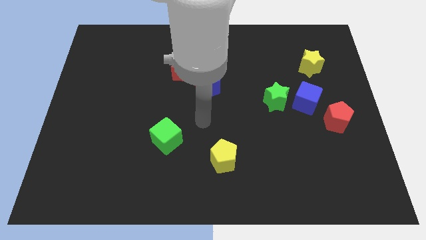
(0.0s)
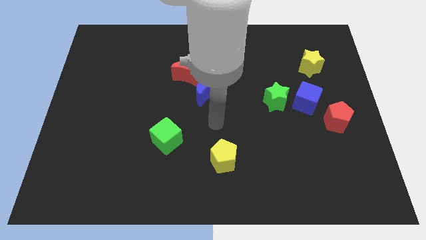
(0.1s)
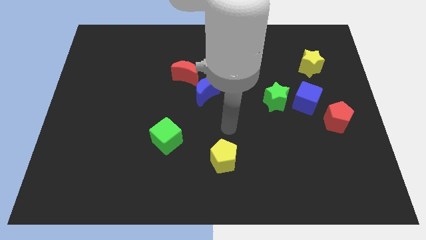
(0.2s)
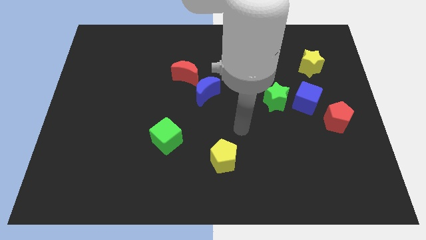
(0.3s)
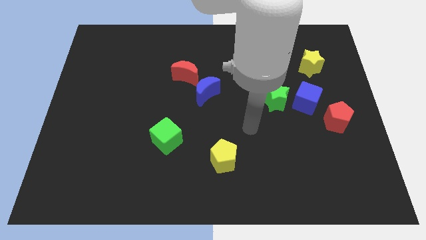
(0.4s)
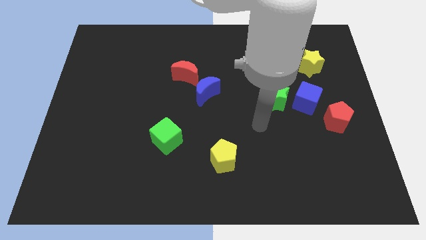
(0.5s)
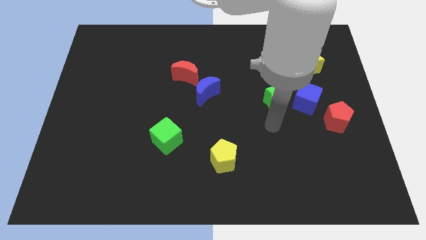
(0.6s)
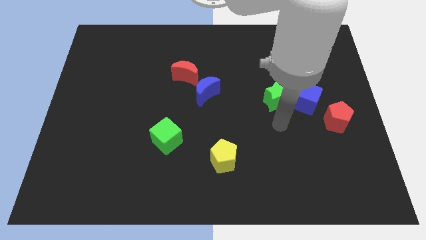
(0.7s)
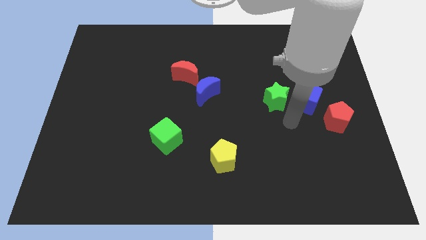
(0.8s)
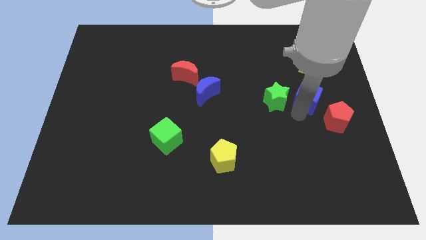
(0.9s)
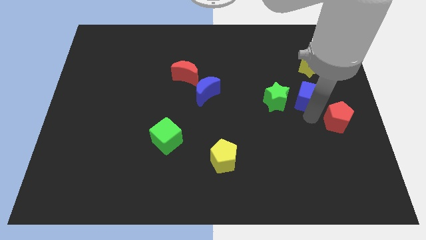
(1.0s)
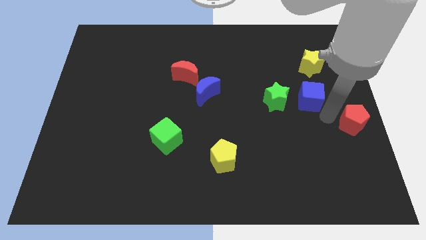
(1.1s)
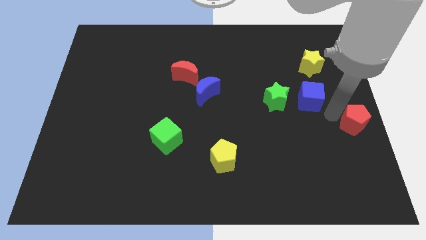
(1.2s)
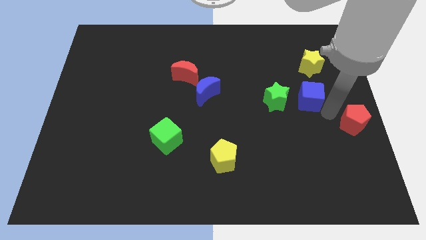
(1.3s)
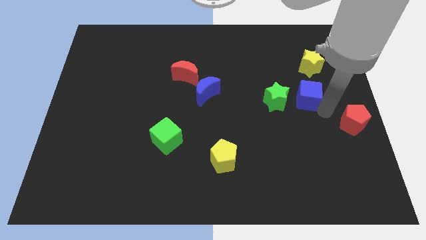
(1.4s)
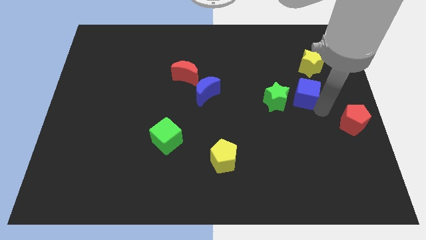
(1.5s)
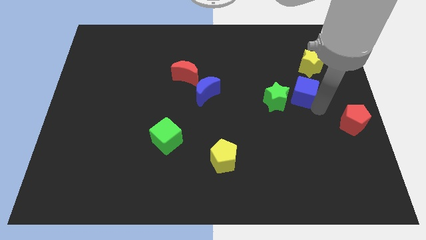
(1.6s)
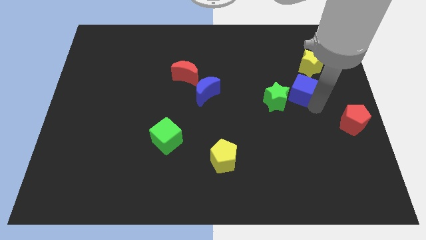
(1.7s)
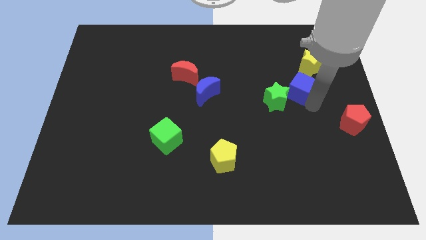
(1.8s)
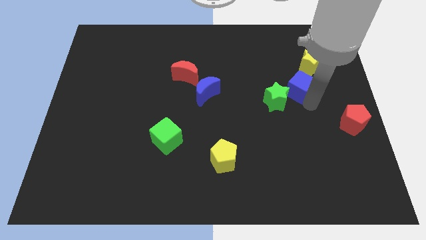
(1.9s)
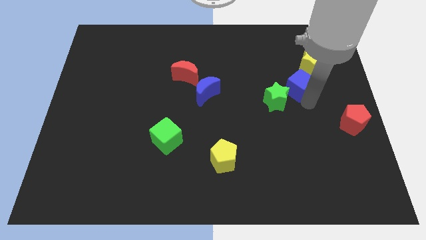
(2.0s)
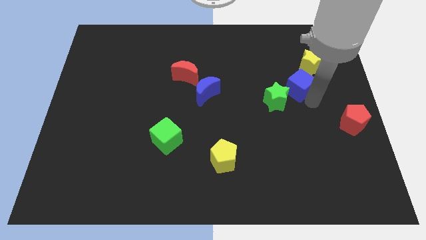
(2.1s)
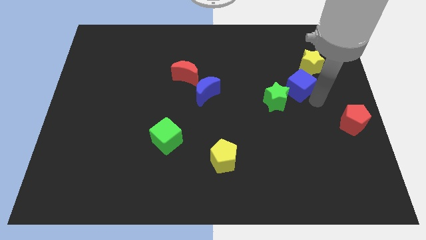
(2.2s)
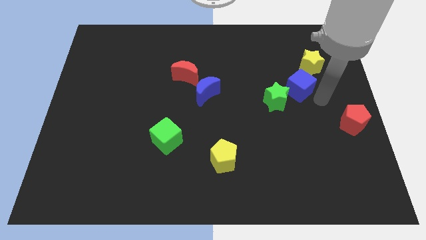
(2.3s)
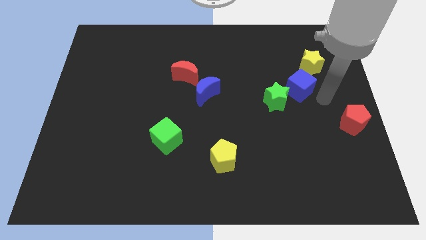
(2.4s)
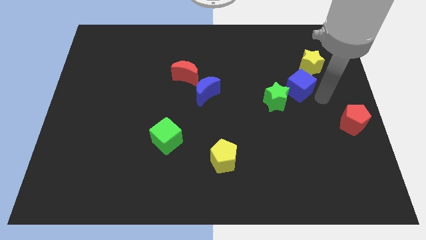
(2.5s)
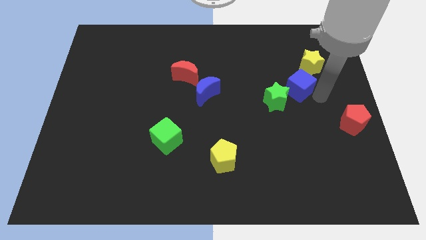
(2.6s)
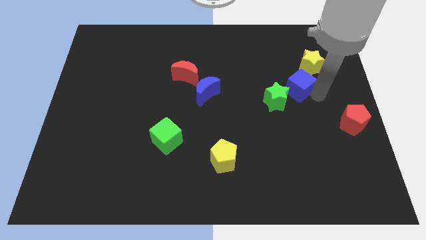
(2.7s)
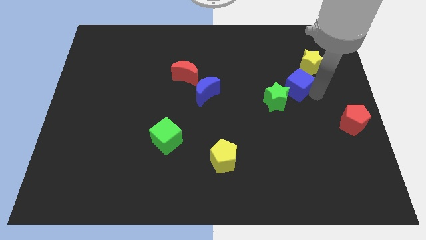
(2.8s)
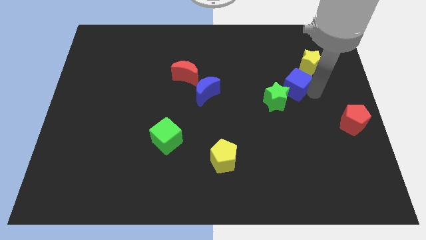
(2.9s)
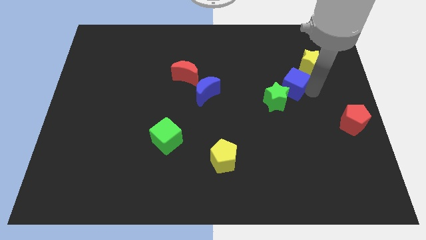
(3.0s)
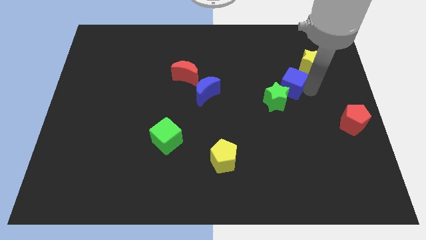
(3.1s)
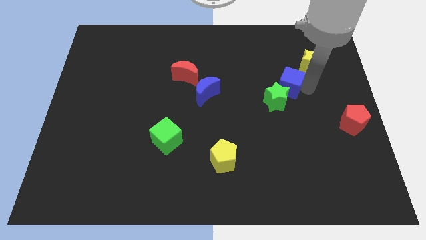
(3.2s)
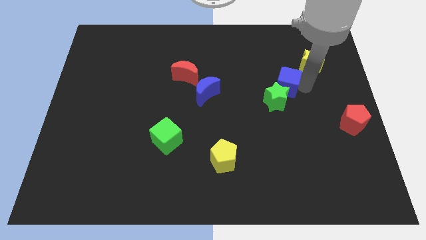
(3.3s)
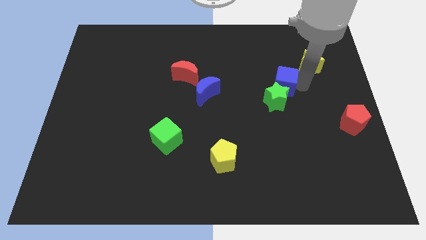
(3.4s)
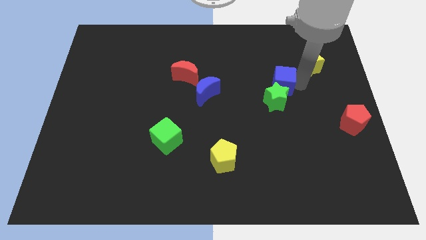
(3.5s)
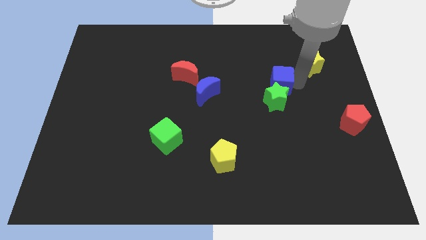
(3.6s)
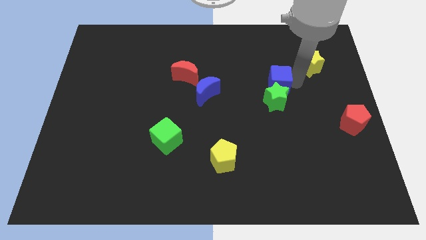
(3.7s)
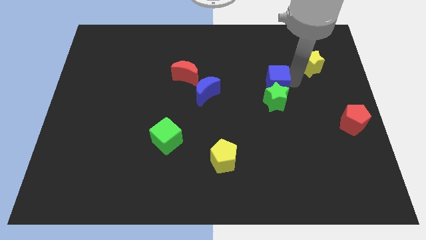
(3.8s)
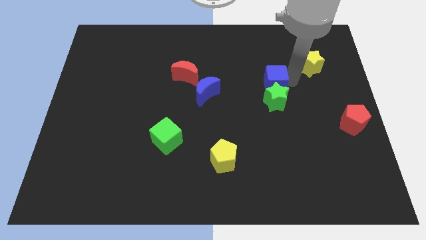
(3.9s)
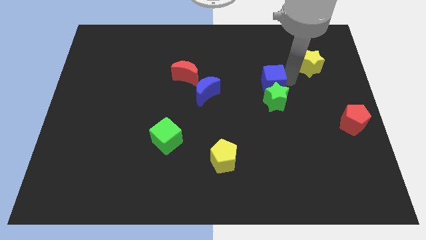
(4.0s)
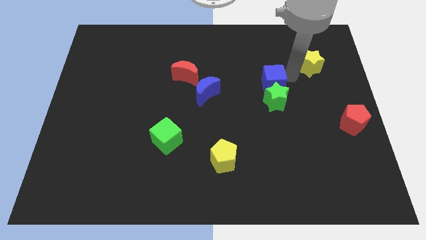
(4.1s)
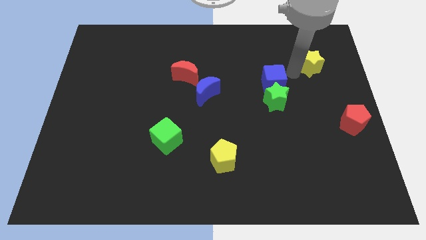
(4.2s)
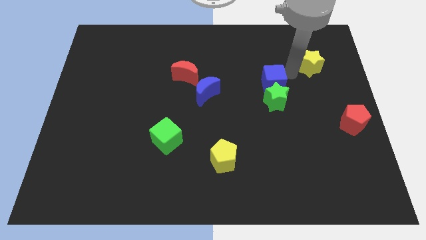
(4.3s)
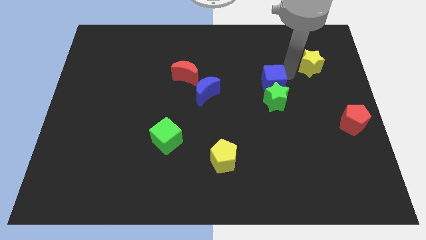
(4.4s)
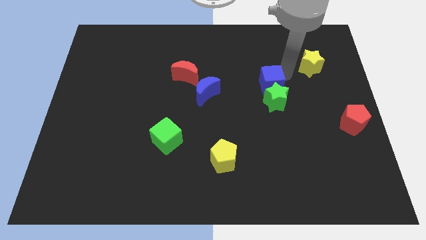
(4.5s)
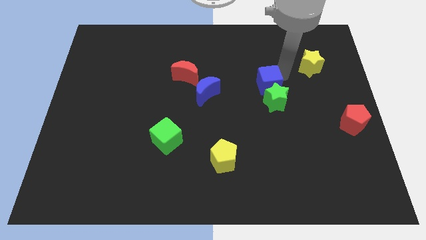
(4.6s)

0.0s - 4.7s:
slightly slide the blue cube to the left

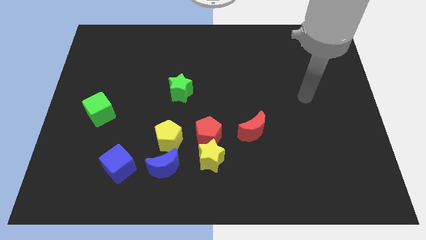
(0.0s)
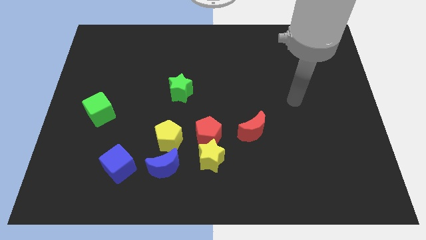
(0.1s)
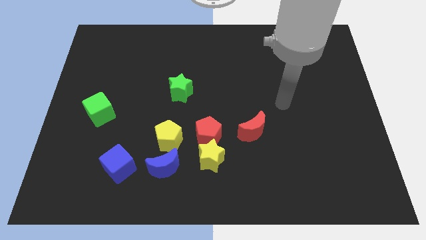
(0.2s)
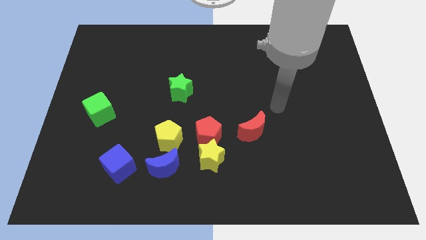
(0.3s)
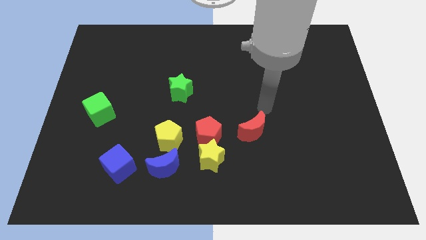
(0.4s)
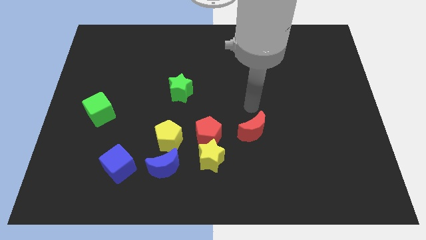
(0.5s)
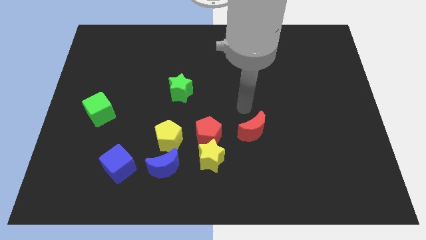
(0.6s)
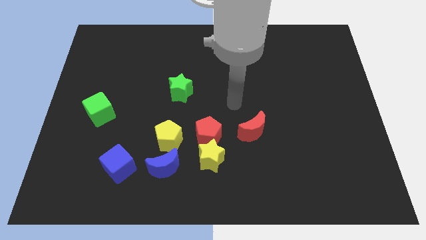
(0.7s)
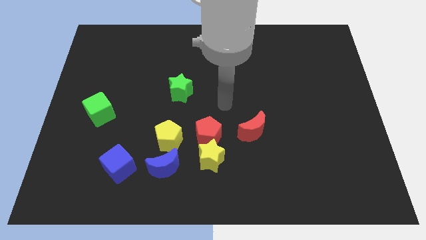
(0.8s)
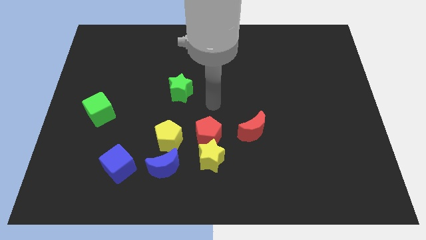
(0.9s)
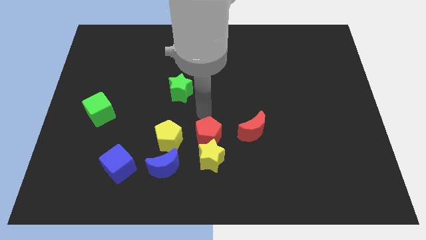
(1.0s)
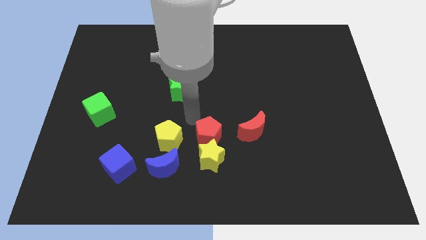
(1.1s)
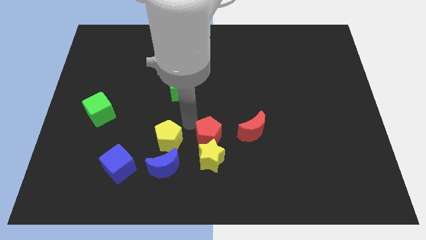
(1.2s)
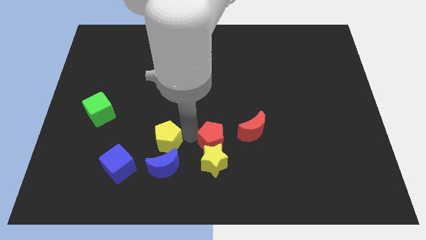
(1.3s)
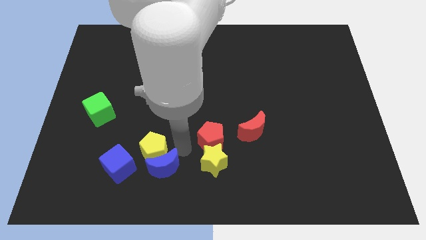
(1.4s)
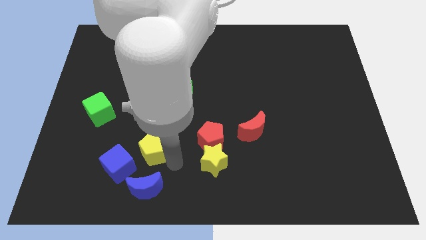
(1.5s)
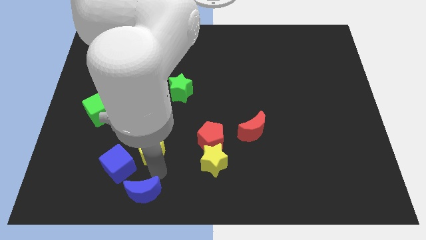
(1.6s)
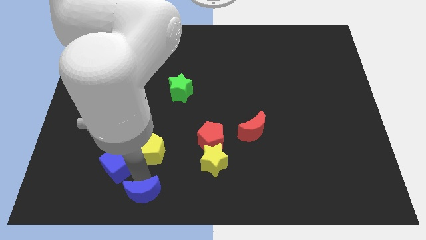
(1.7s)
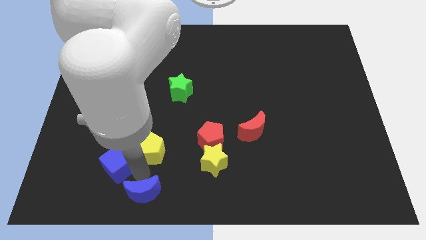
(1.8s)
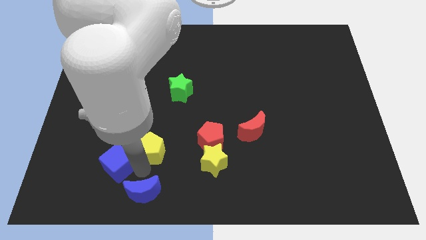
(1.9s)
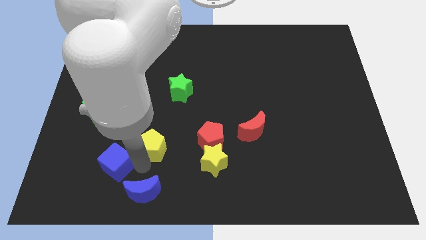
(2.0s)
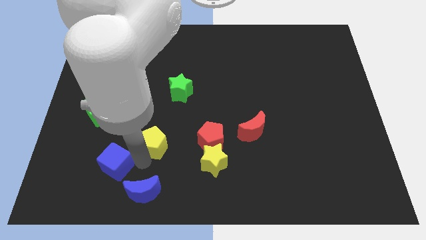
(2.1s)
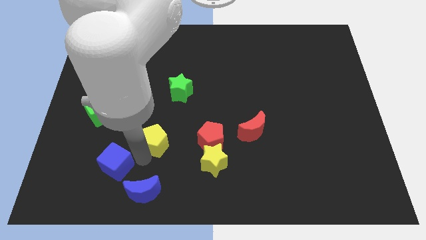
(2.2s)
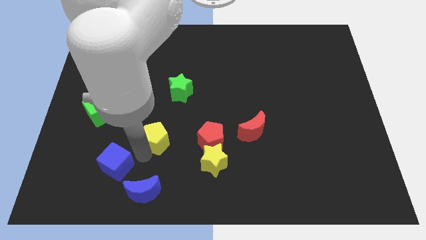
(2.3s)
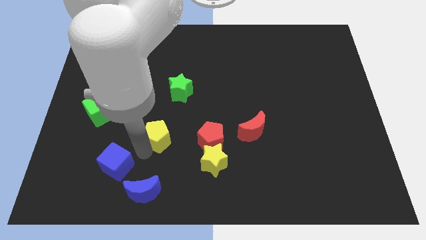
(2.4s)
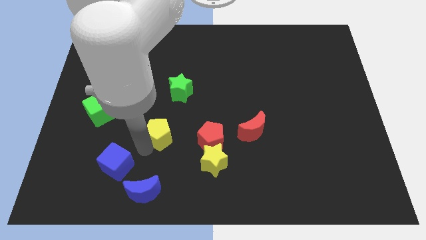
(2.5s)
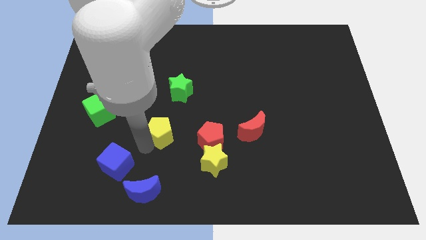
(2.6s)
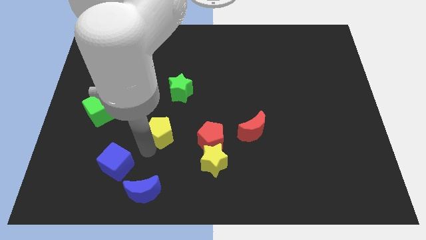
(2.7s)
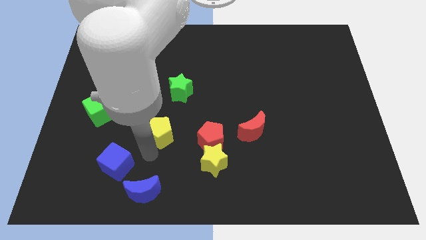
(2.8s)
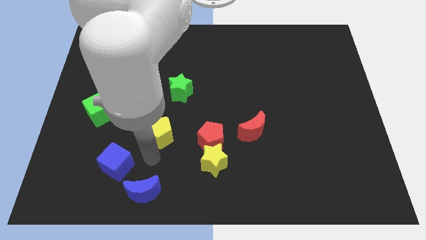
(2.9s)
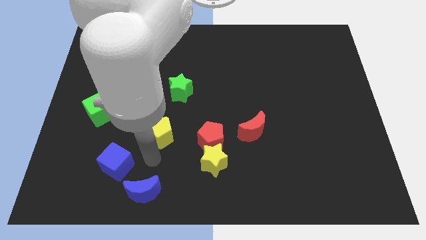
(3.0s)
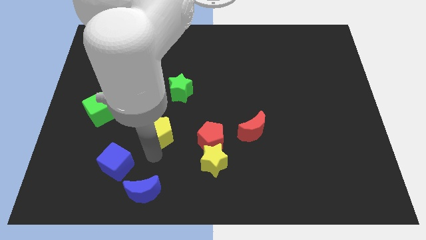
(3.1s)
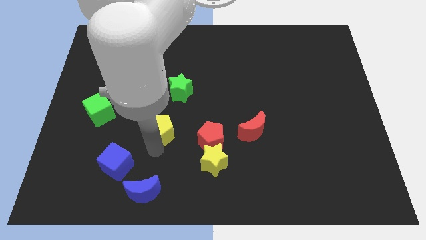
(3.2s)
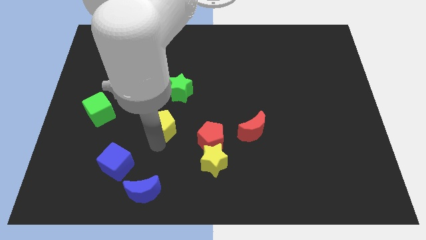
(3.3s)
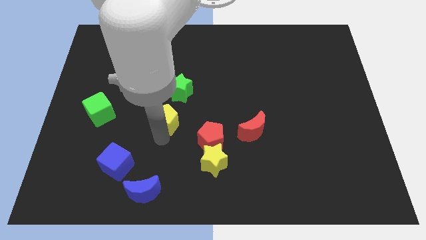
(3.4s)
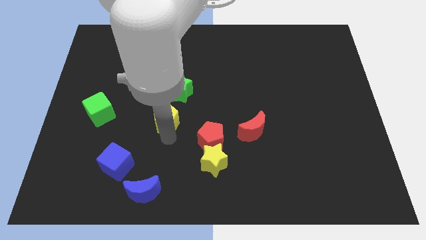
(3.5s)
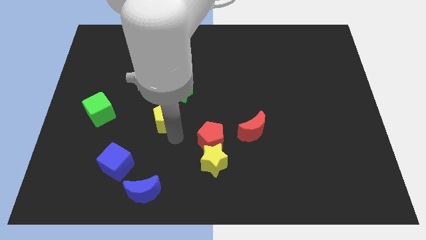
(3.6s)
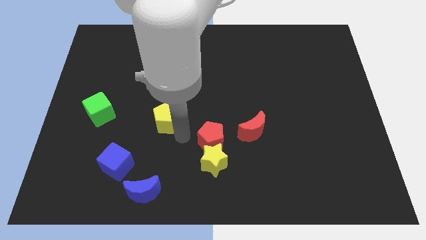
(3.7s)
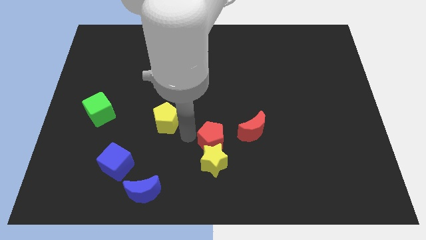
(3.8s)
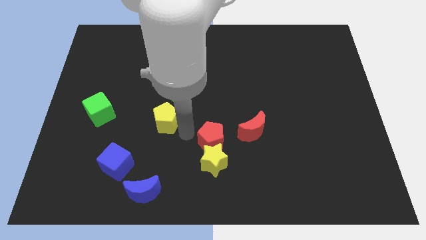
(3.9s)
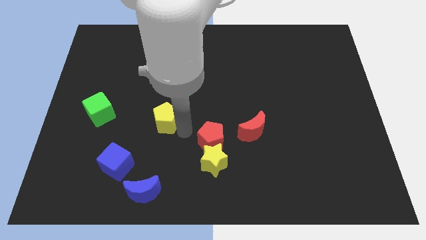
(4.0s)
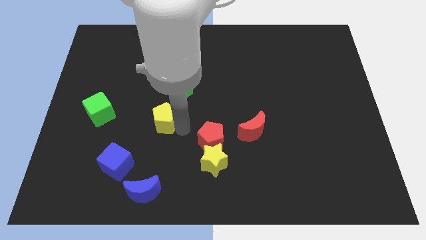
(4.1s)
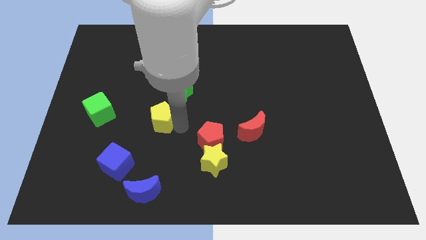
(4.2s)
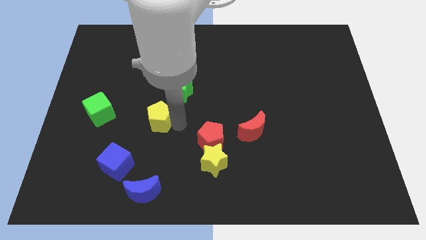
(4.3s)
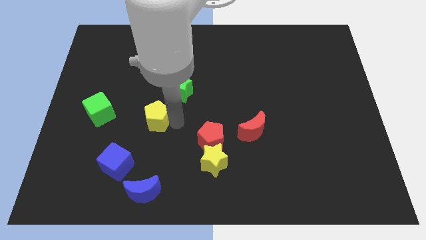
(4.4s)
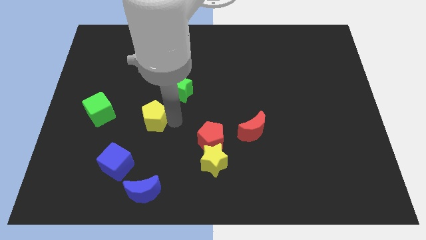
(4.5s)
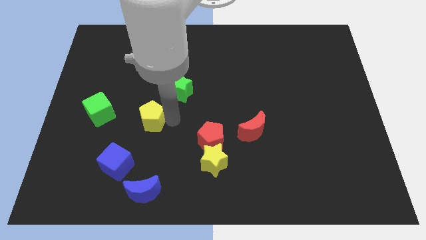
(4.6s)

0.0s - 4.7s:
move the yellow pentagon a little up and then to the left
